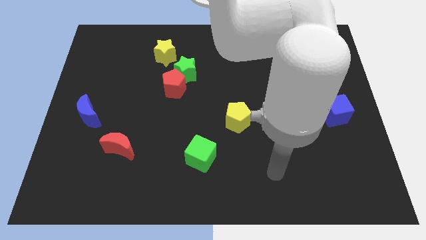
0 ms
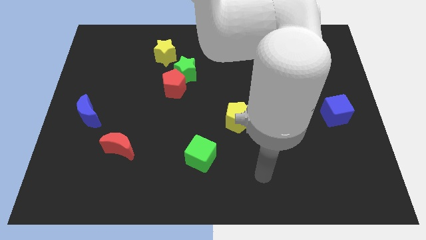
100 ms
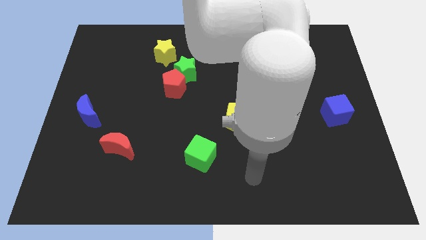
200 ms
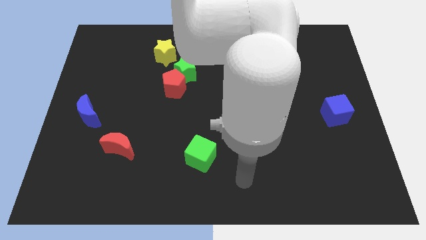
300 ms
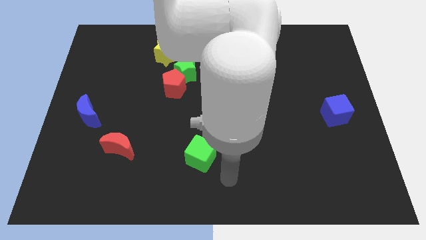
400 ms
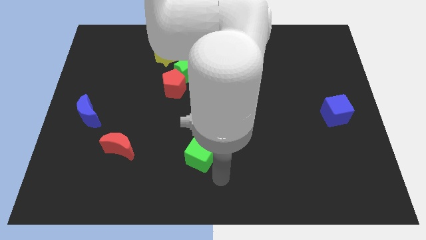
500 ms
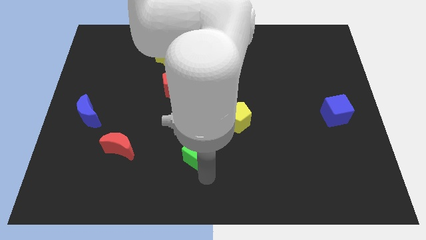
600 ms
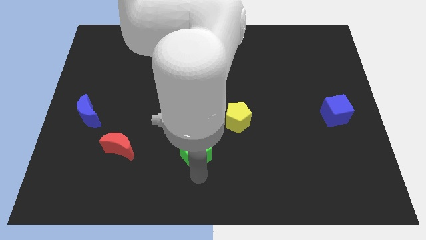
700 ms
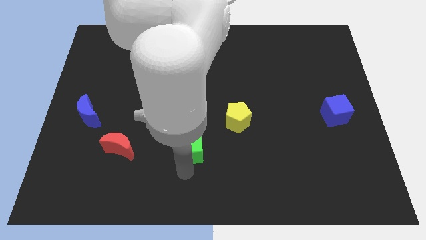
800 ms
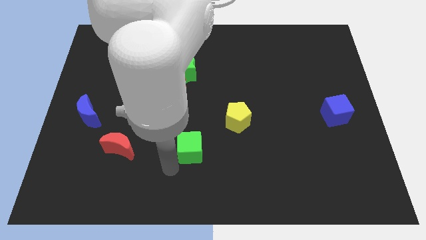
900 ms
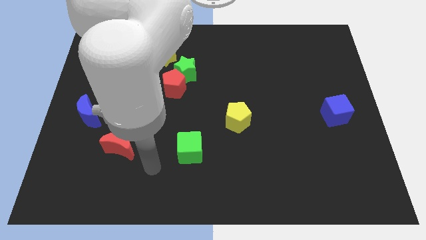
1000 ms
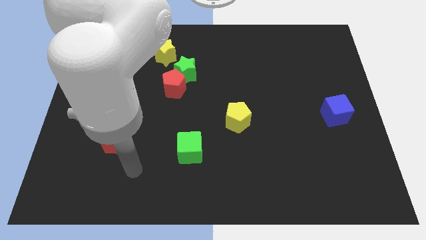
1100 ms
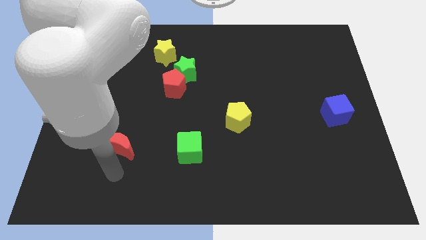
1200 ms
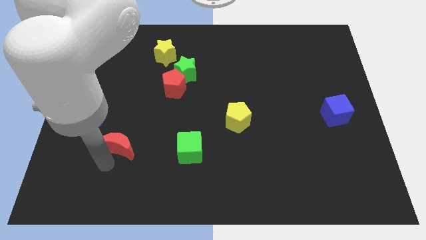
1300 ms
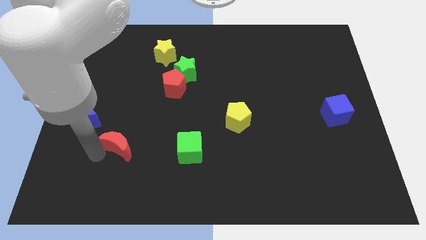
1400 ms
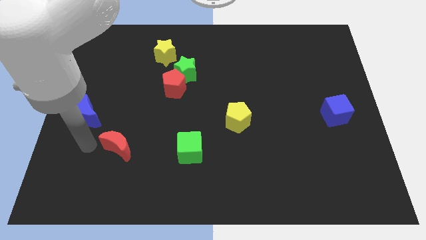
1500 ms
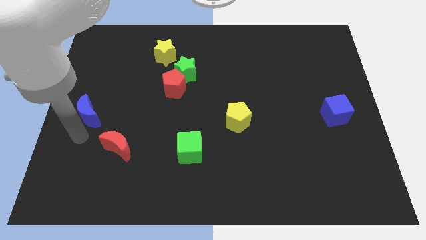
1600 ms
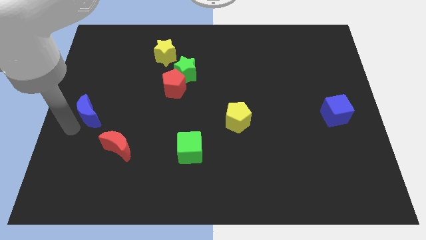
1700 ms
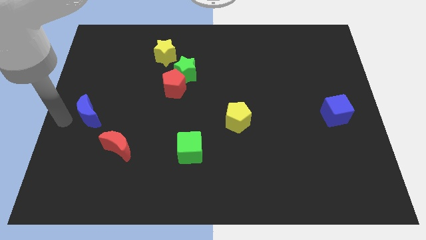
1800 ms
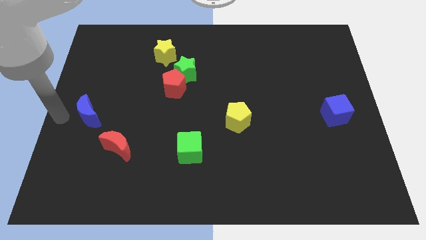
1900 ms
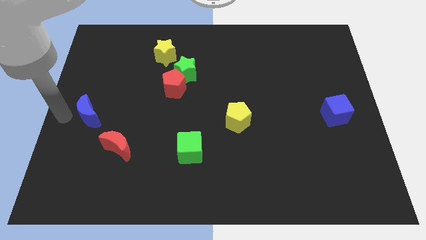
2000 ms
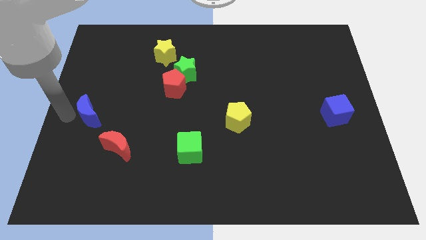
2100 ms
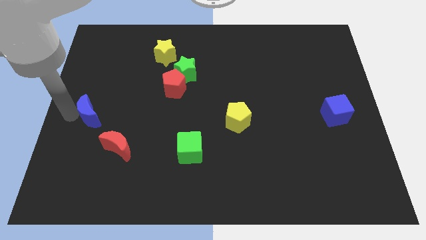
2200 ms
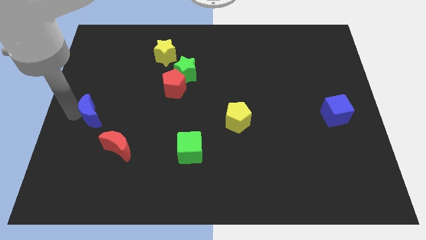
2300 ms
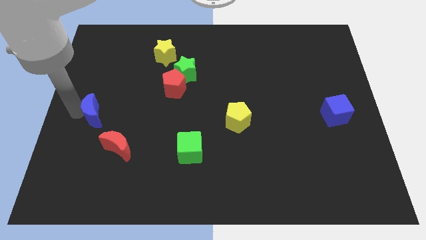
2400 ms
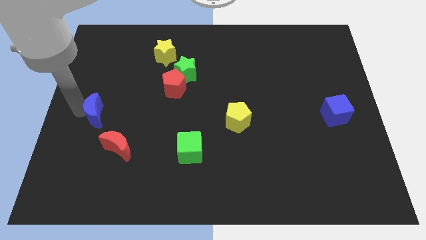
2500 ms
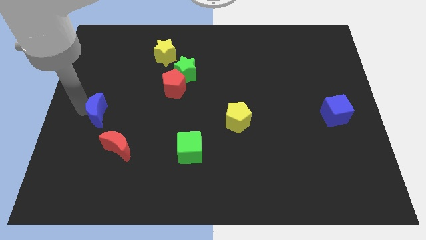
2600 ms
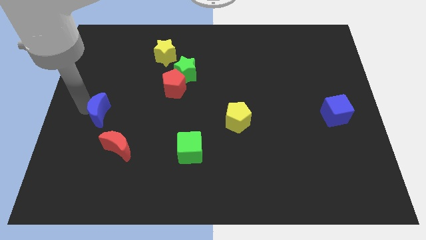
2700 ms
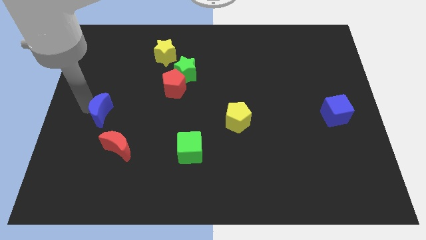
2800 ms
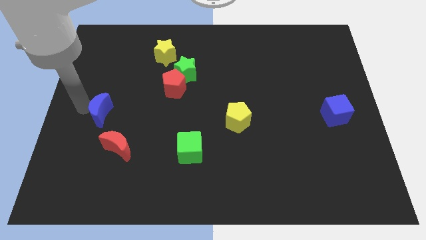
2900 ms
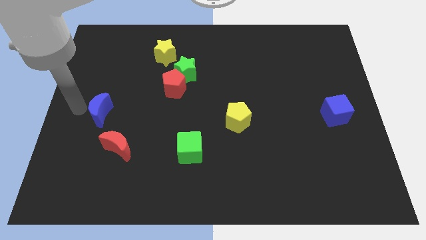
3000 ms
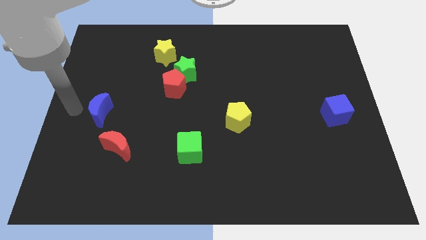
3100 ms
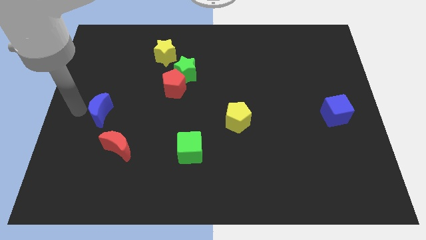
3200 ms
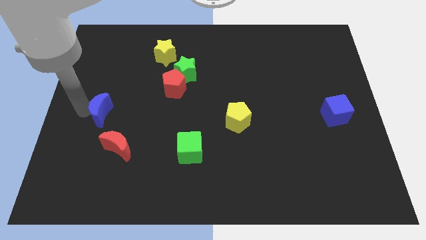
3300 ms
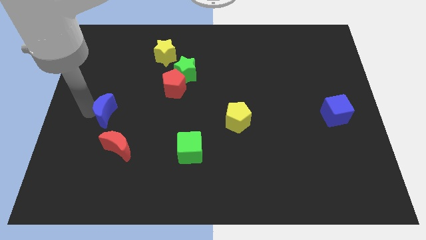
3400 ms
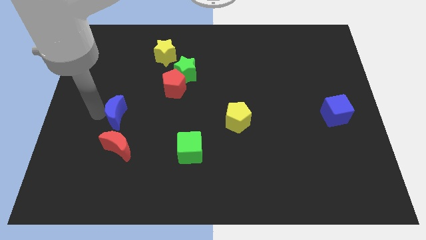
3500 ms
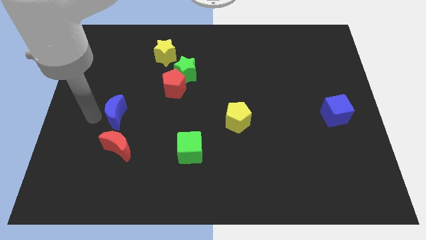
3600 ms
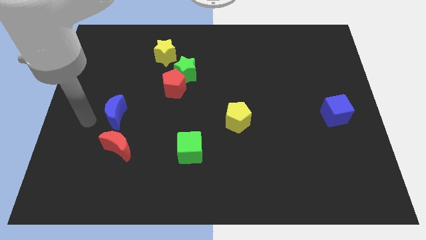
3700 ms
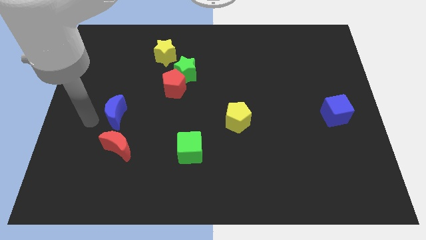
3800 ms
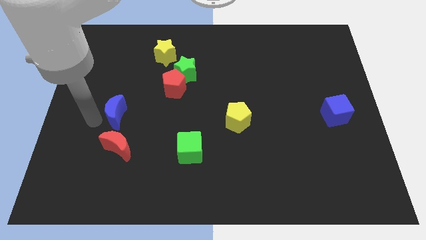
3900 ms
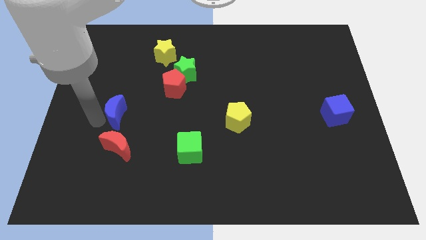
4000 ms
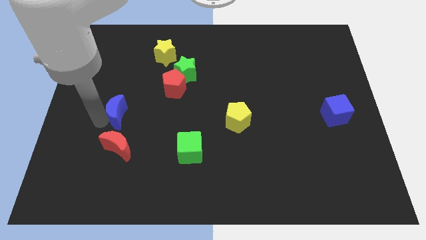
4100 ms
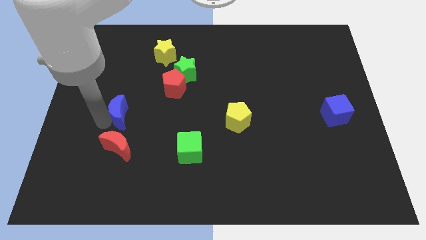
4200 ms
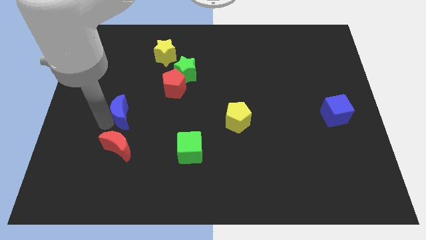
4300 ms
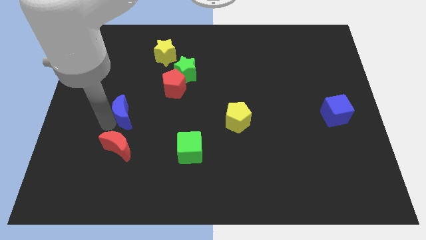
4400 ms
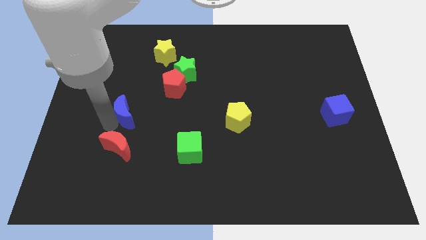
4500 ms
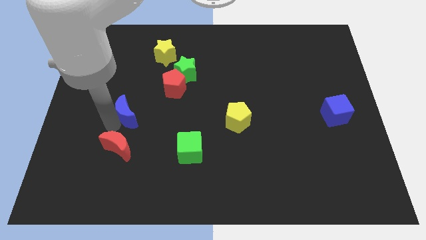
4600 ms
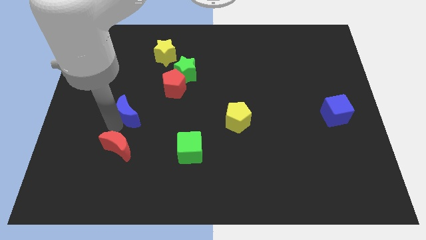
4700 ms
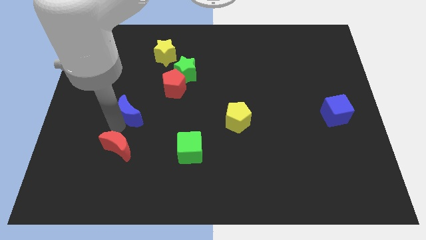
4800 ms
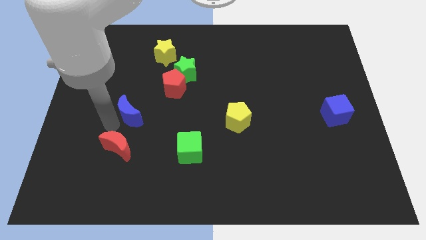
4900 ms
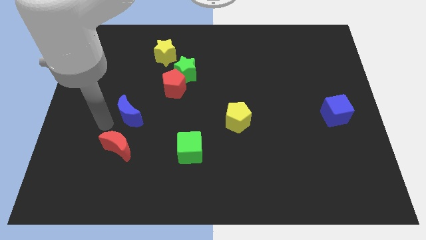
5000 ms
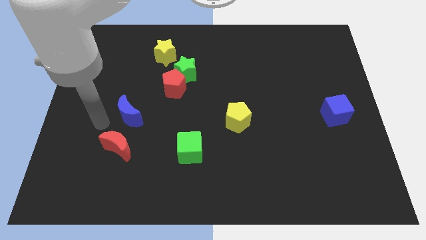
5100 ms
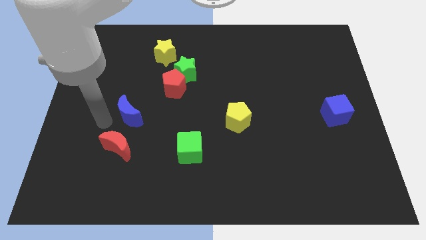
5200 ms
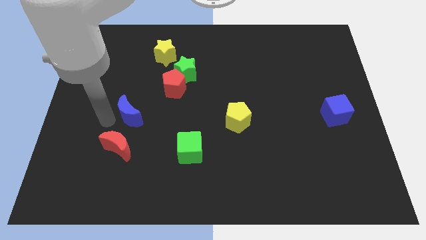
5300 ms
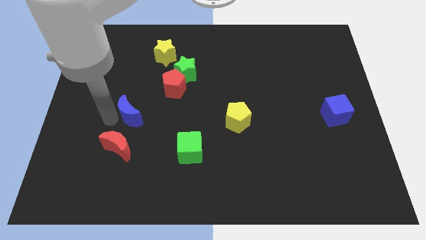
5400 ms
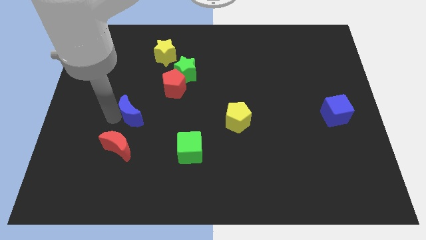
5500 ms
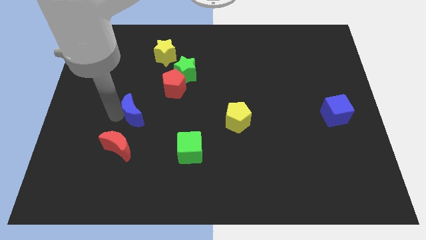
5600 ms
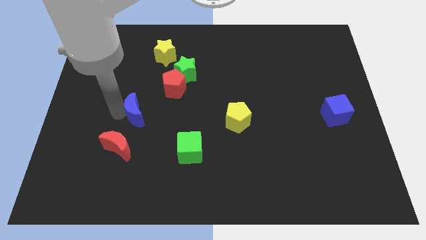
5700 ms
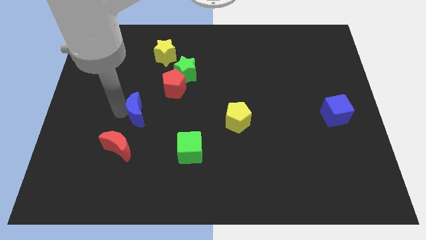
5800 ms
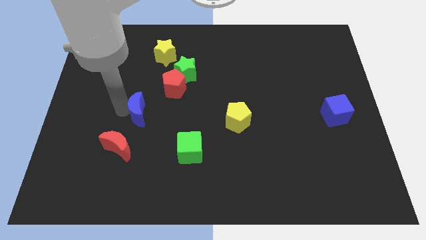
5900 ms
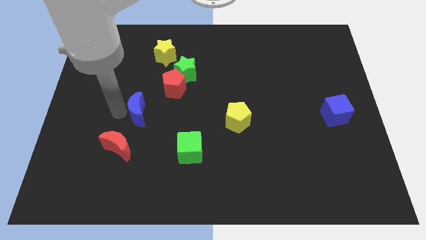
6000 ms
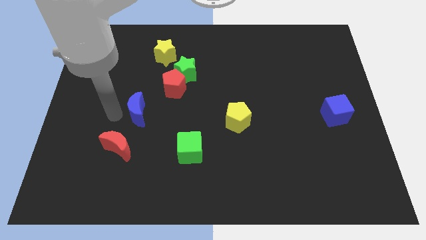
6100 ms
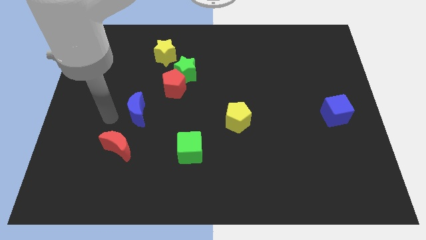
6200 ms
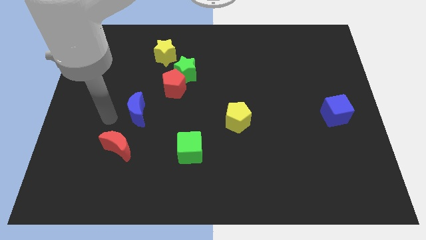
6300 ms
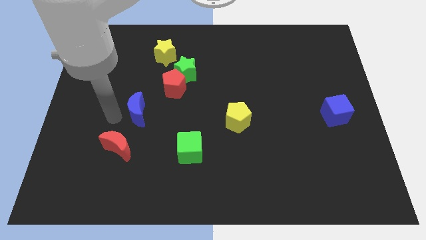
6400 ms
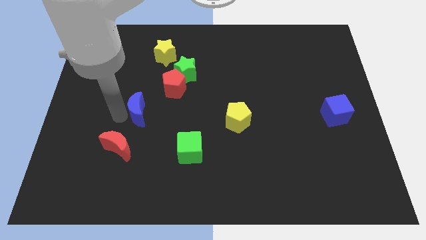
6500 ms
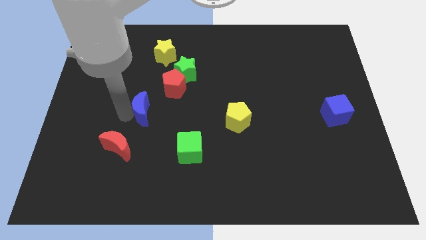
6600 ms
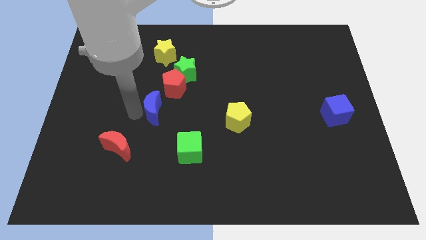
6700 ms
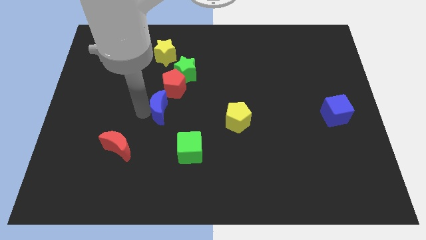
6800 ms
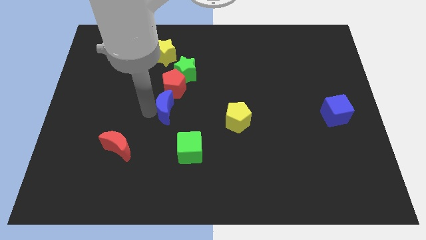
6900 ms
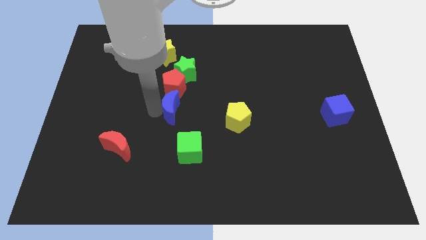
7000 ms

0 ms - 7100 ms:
put the blue moon above the green cube

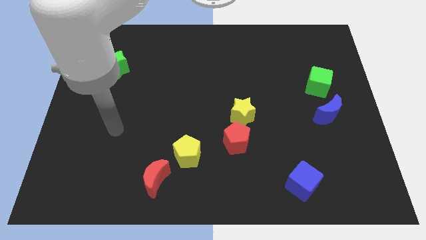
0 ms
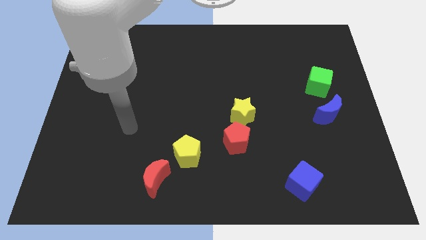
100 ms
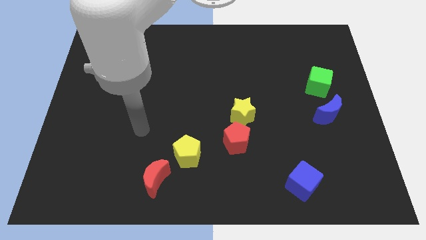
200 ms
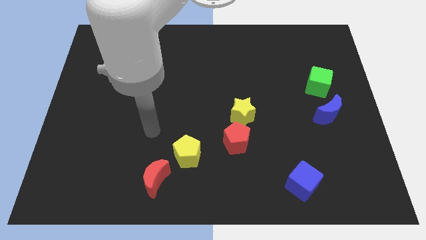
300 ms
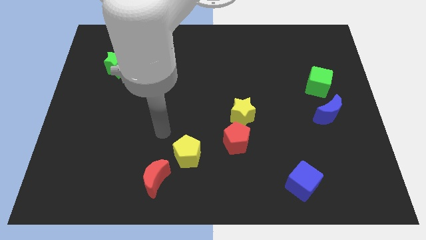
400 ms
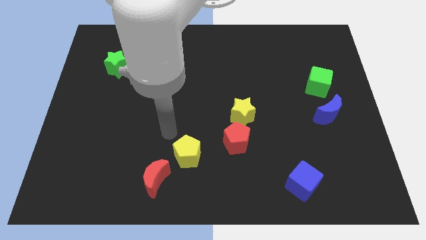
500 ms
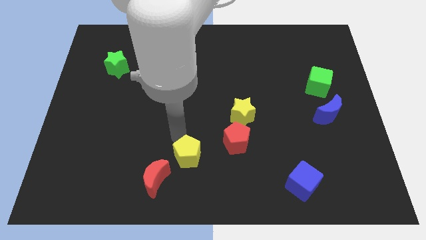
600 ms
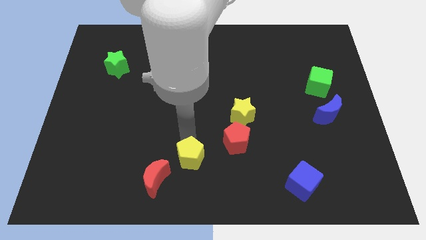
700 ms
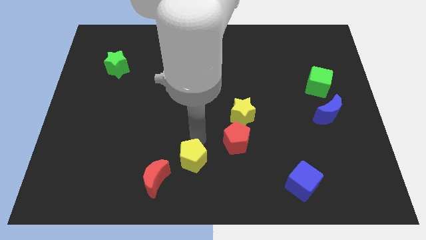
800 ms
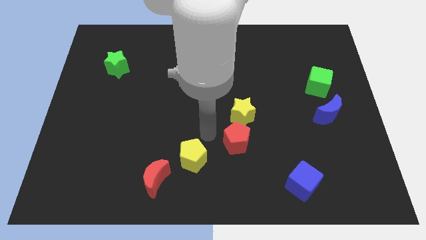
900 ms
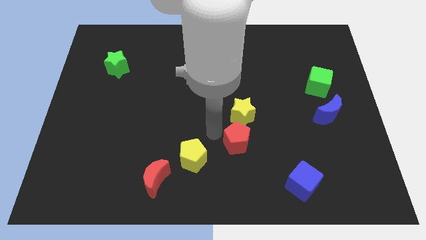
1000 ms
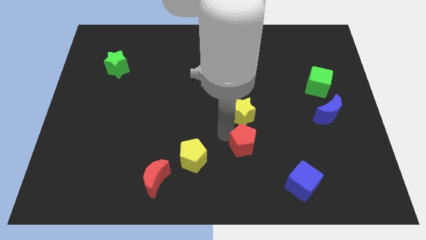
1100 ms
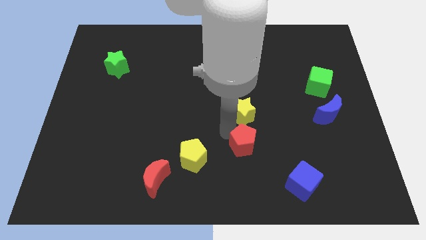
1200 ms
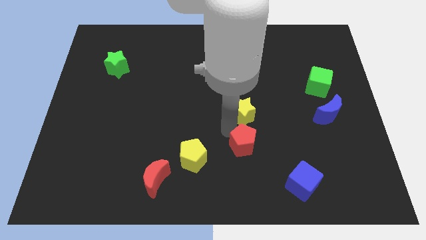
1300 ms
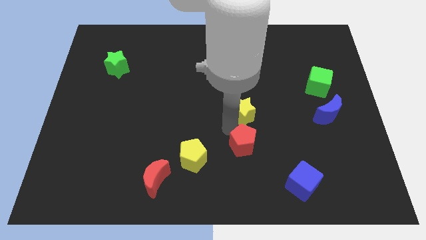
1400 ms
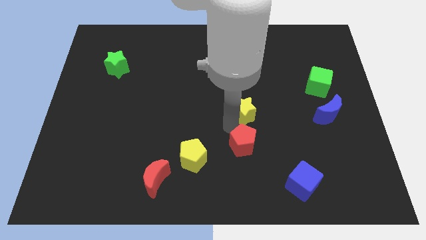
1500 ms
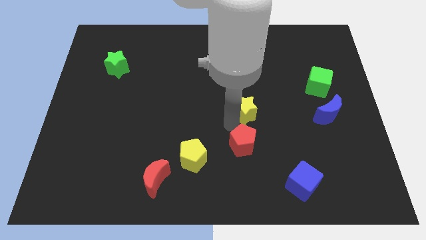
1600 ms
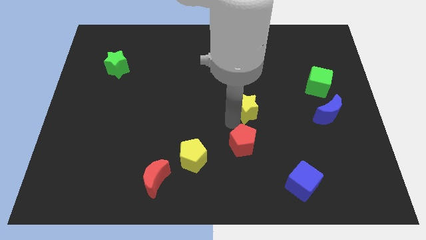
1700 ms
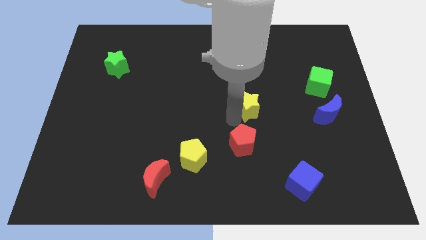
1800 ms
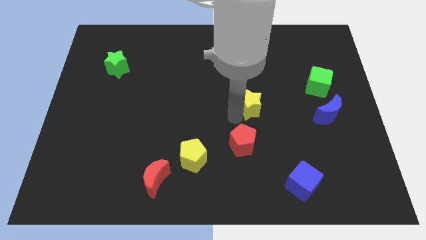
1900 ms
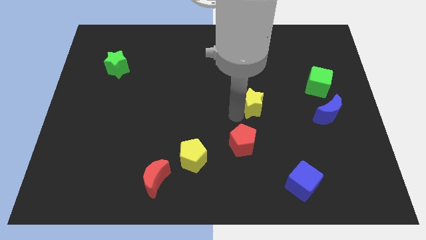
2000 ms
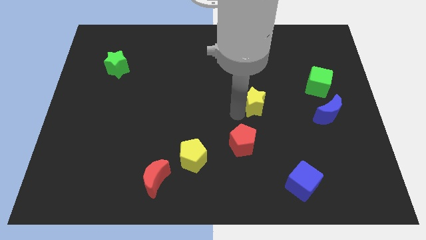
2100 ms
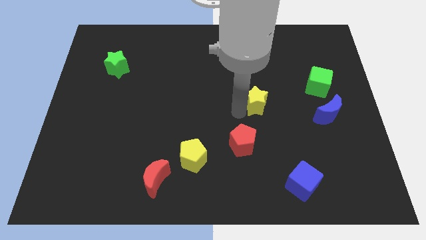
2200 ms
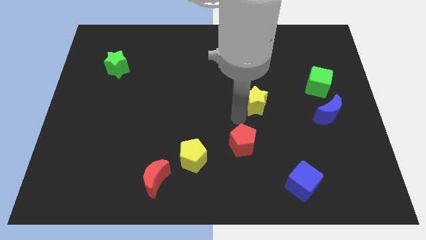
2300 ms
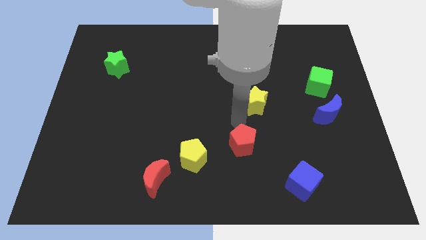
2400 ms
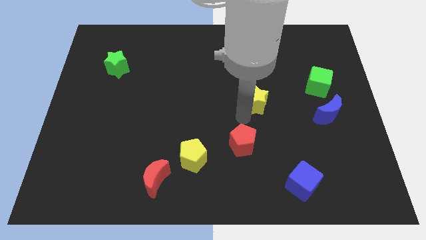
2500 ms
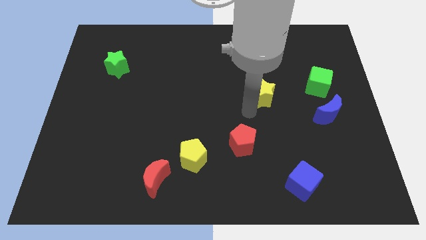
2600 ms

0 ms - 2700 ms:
move the yellow star just left of the green cube
